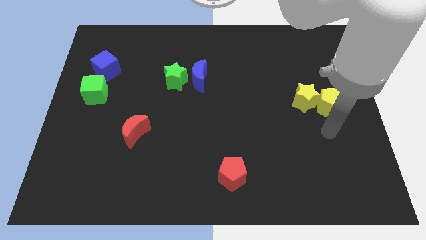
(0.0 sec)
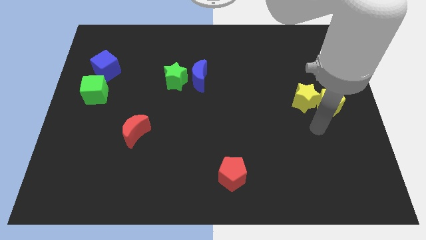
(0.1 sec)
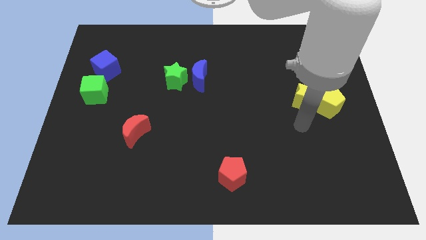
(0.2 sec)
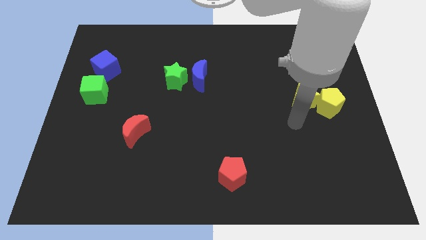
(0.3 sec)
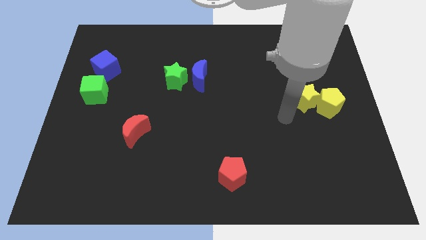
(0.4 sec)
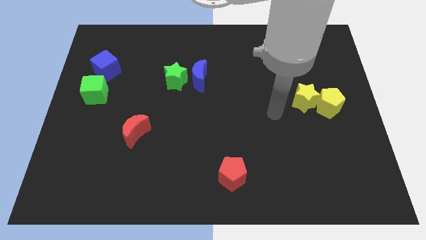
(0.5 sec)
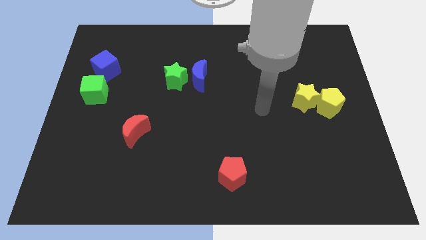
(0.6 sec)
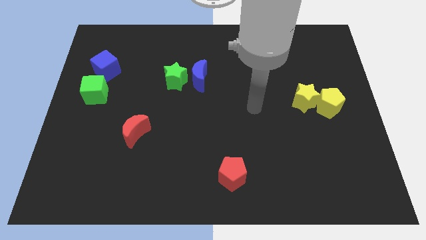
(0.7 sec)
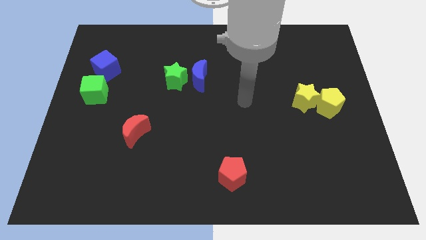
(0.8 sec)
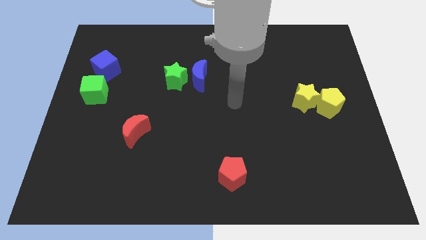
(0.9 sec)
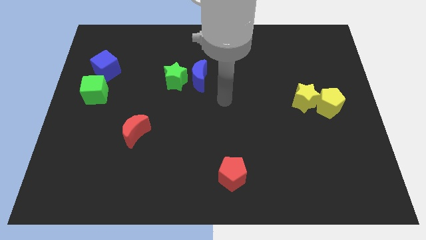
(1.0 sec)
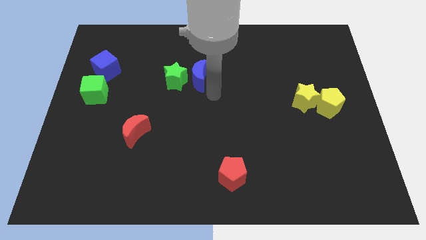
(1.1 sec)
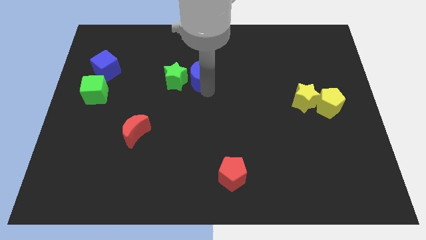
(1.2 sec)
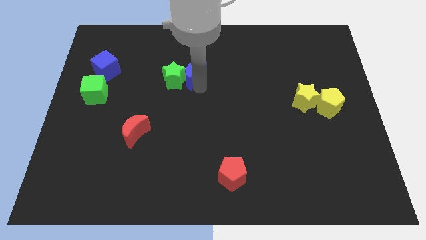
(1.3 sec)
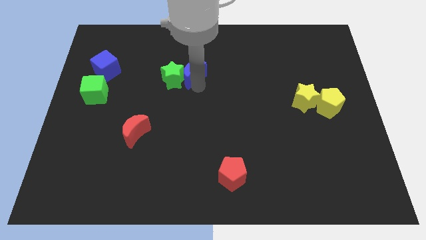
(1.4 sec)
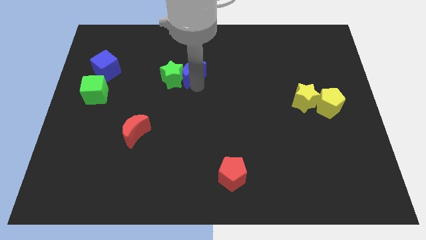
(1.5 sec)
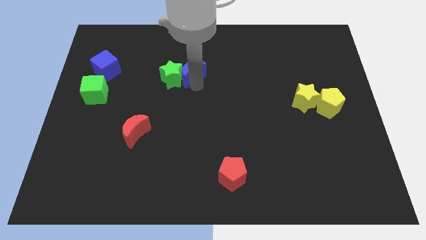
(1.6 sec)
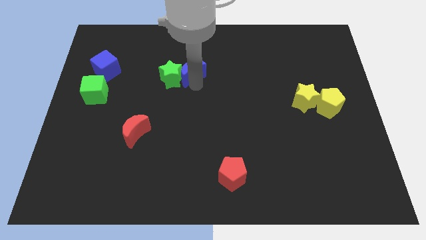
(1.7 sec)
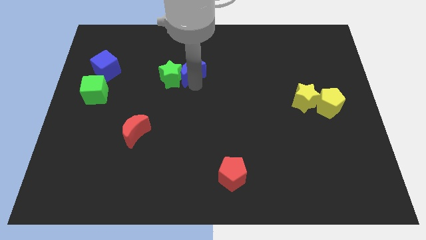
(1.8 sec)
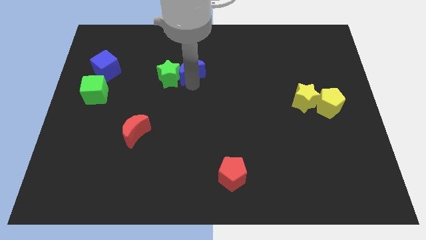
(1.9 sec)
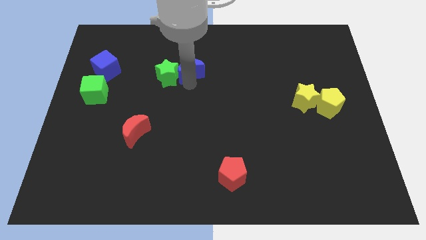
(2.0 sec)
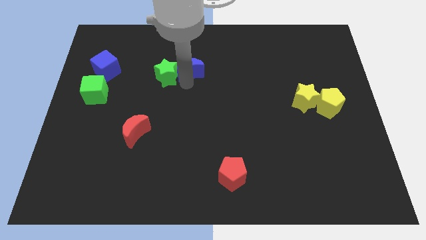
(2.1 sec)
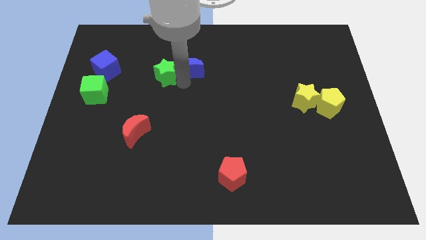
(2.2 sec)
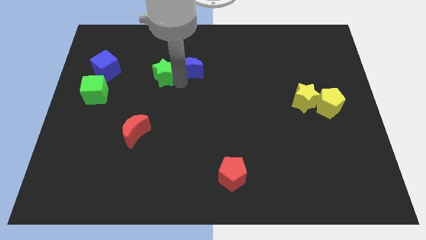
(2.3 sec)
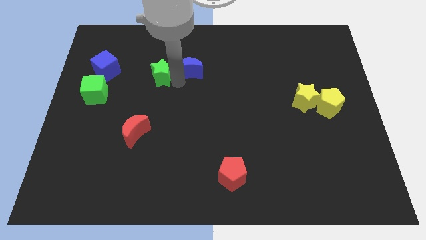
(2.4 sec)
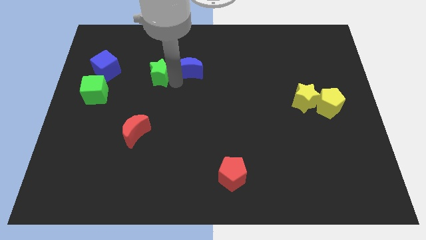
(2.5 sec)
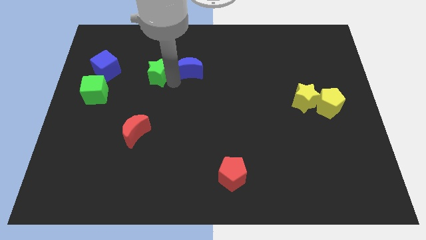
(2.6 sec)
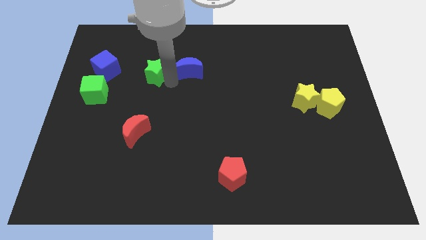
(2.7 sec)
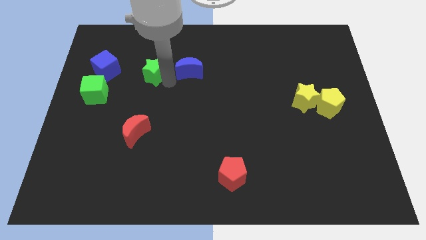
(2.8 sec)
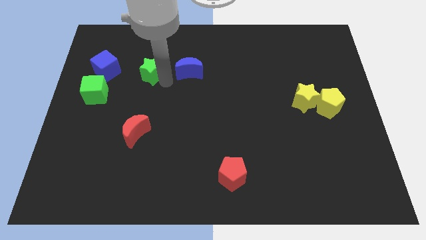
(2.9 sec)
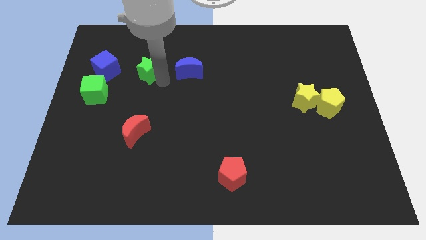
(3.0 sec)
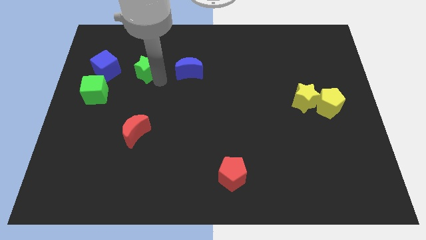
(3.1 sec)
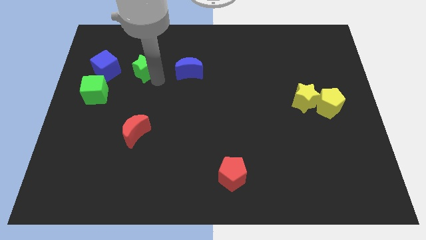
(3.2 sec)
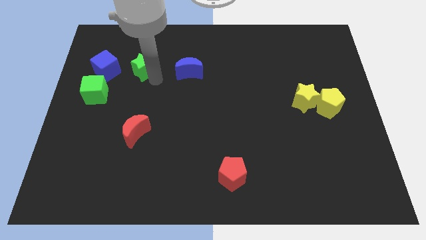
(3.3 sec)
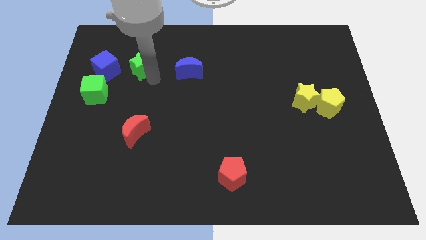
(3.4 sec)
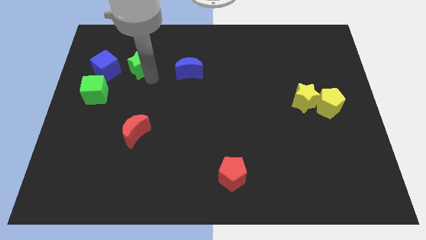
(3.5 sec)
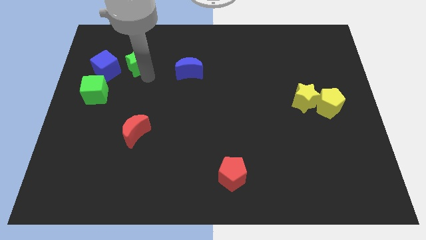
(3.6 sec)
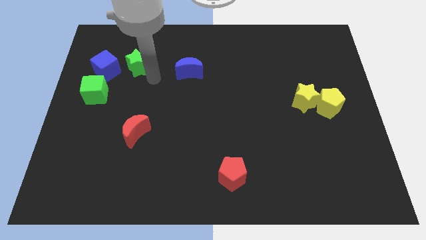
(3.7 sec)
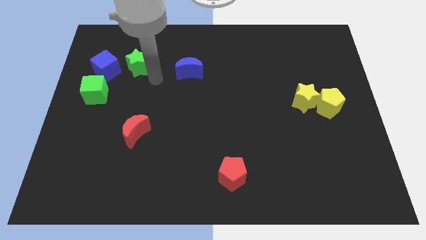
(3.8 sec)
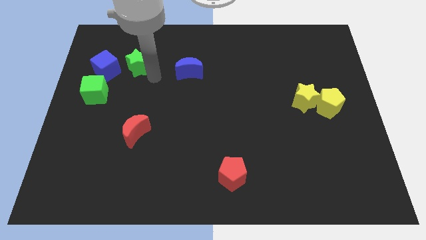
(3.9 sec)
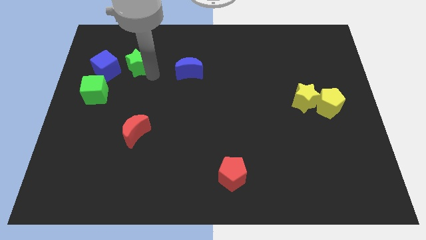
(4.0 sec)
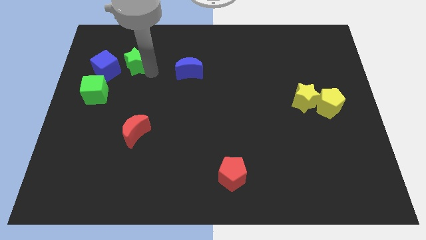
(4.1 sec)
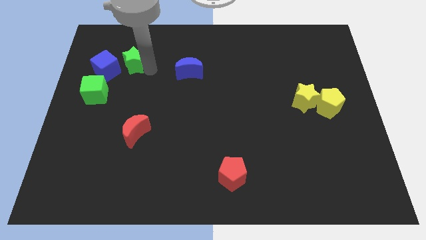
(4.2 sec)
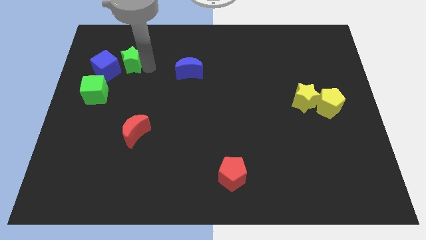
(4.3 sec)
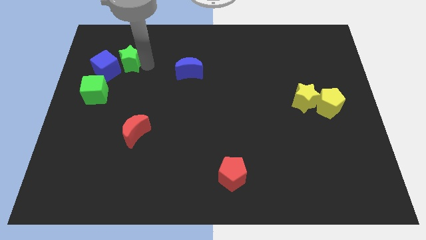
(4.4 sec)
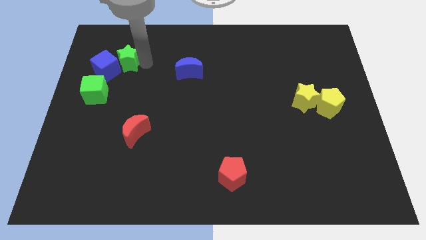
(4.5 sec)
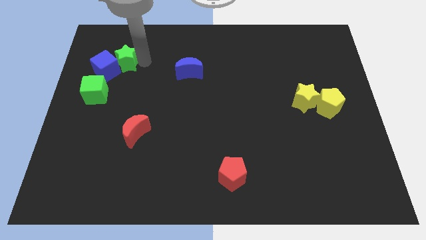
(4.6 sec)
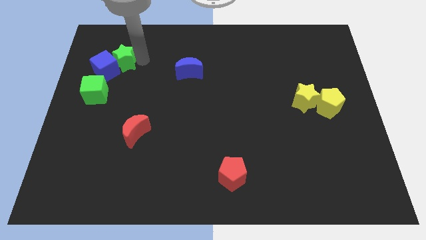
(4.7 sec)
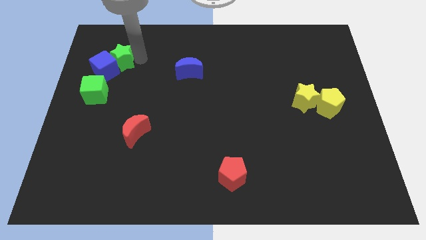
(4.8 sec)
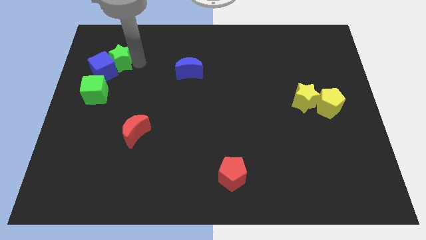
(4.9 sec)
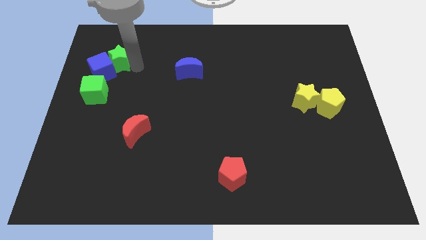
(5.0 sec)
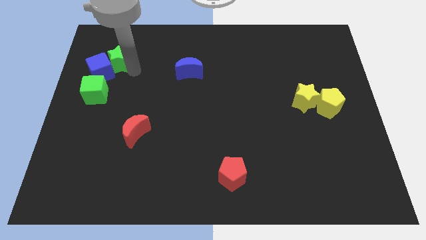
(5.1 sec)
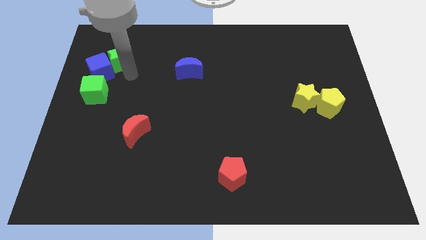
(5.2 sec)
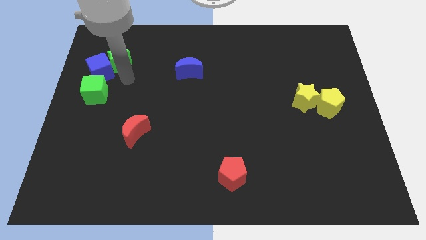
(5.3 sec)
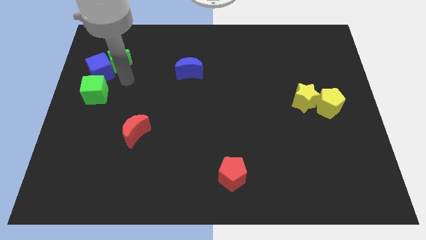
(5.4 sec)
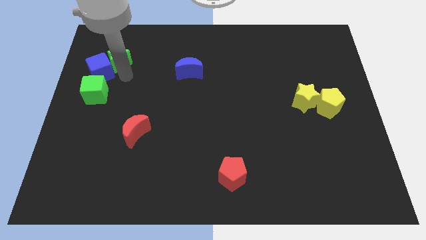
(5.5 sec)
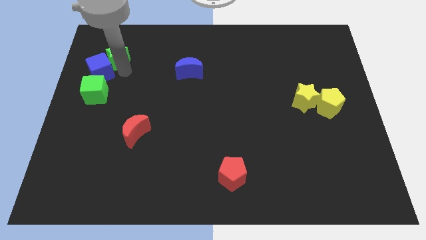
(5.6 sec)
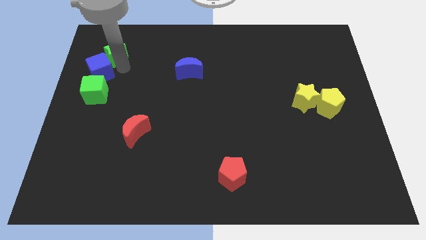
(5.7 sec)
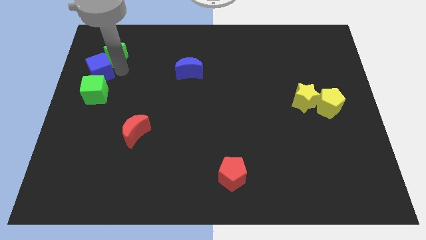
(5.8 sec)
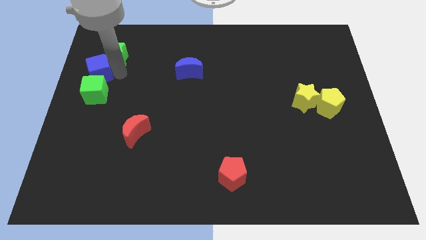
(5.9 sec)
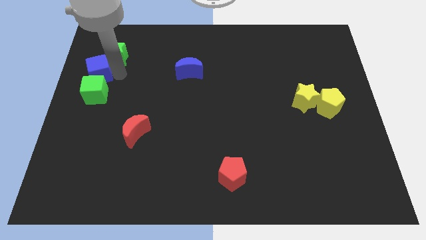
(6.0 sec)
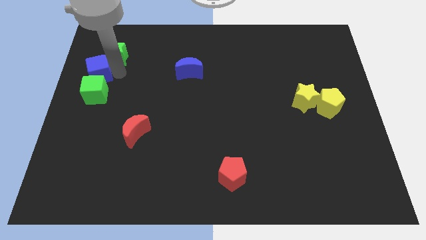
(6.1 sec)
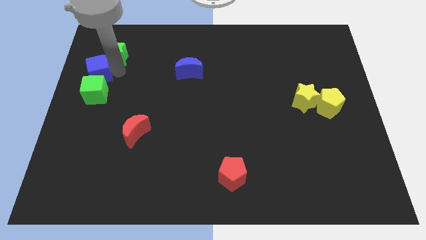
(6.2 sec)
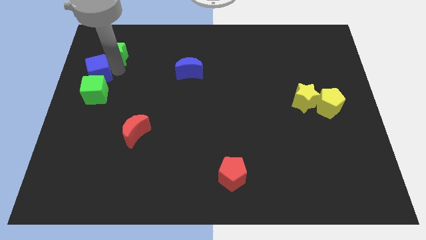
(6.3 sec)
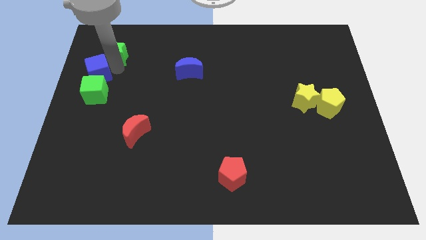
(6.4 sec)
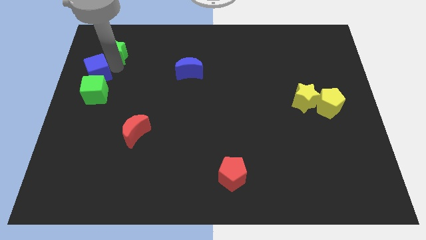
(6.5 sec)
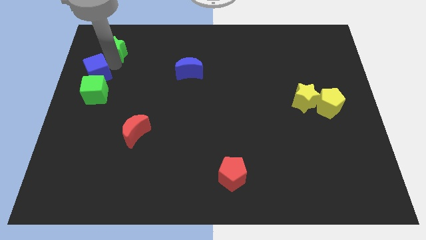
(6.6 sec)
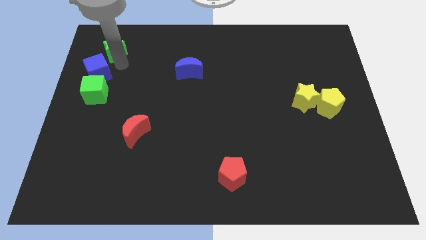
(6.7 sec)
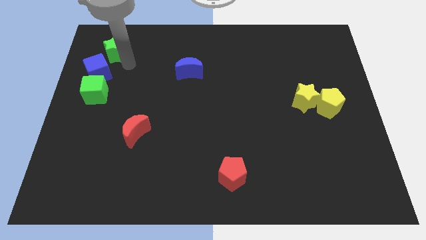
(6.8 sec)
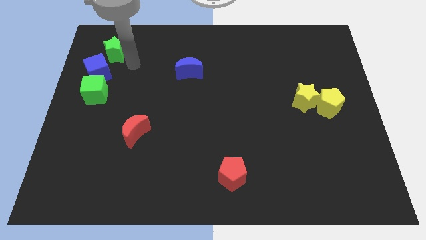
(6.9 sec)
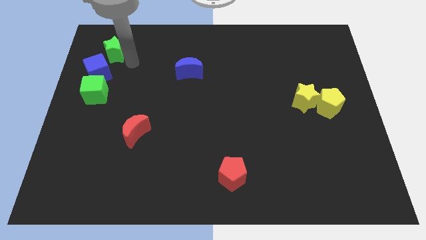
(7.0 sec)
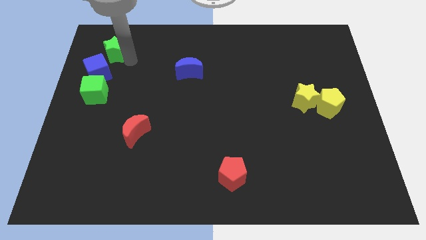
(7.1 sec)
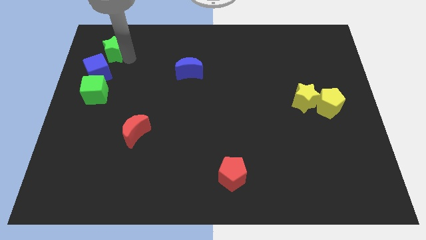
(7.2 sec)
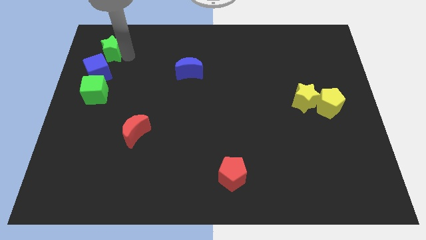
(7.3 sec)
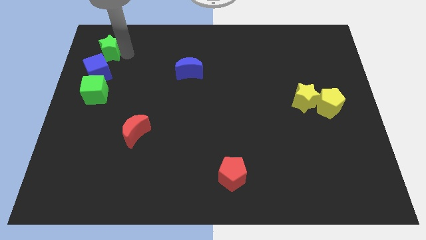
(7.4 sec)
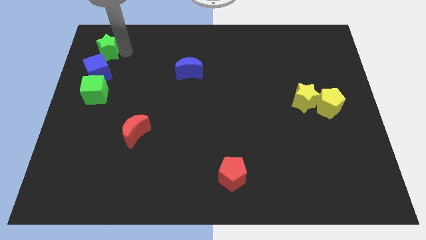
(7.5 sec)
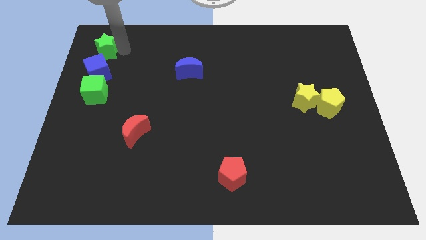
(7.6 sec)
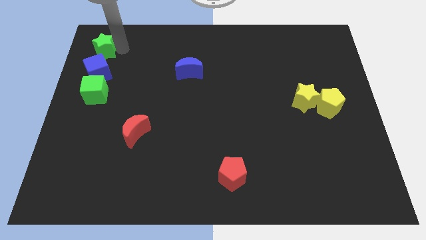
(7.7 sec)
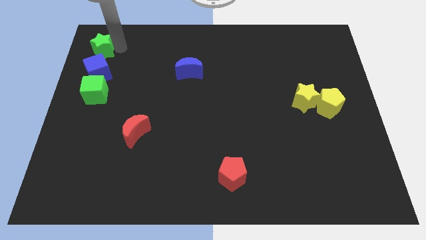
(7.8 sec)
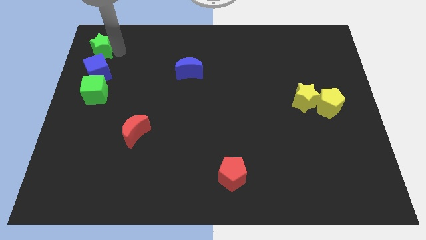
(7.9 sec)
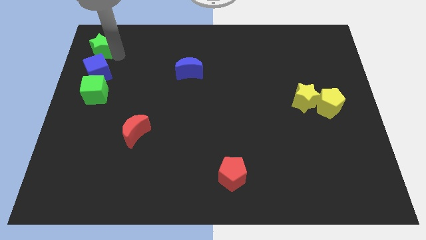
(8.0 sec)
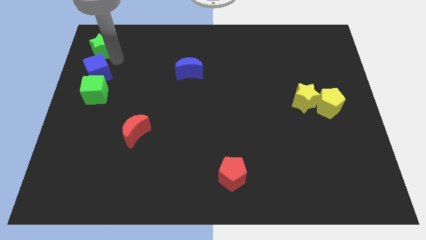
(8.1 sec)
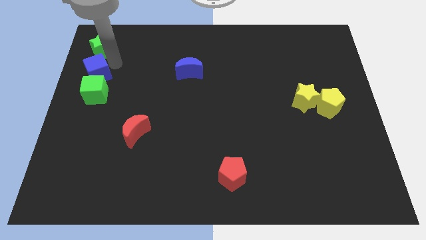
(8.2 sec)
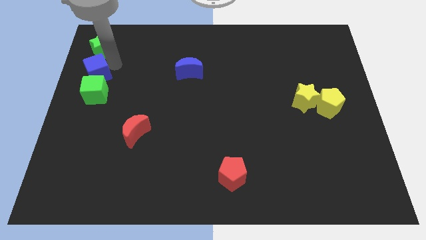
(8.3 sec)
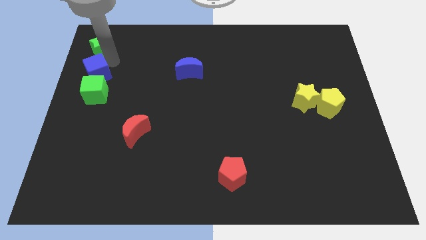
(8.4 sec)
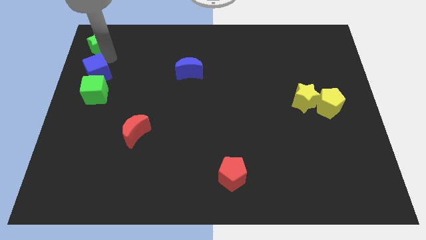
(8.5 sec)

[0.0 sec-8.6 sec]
put the green star to the top left of the board
